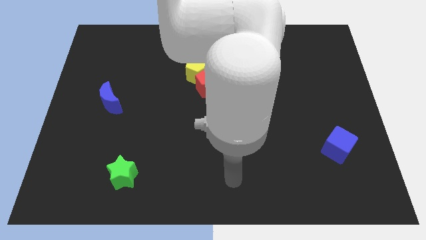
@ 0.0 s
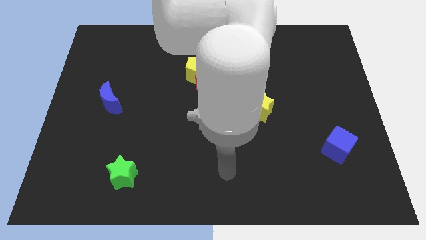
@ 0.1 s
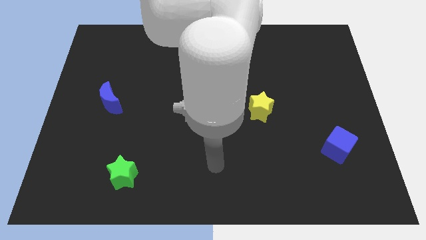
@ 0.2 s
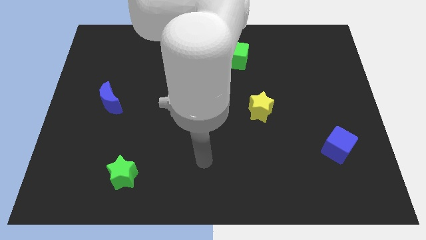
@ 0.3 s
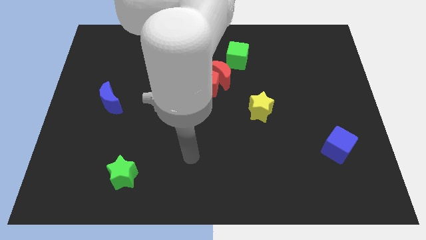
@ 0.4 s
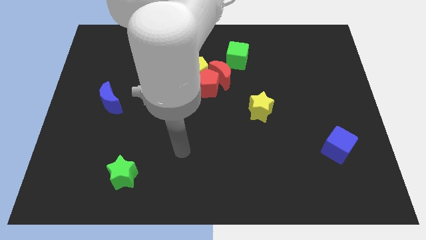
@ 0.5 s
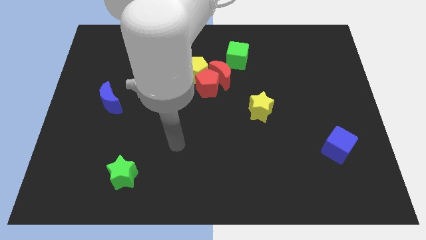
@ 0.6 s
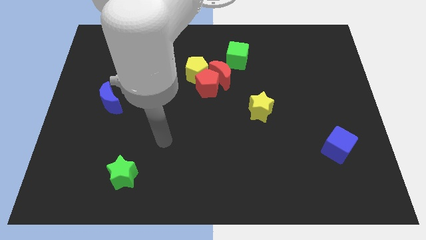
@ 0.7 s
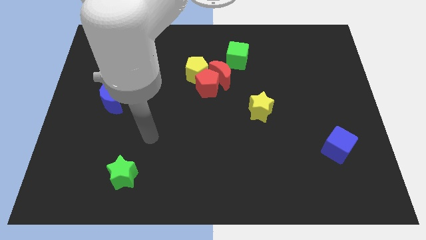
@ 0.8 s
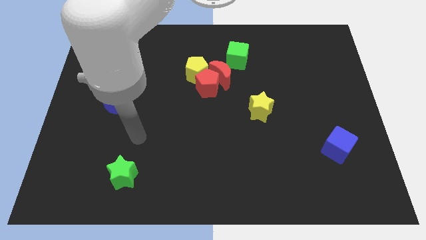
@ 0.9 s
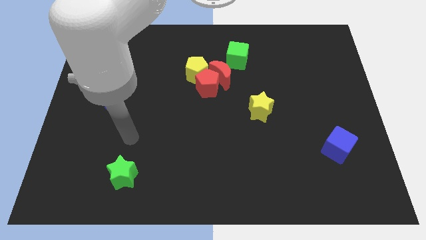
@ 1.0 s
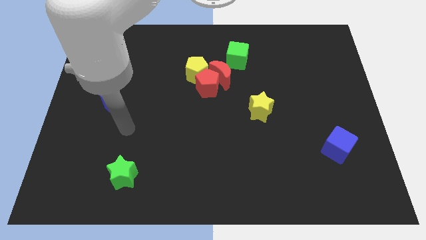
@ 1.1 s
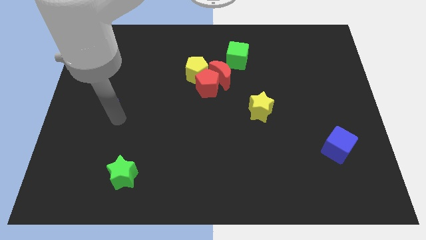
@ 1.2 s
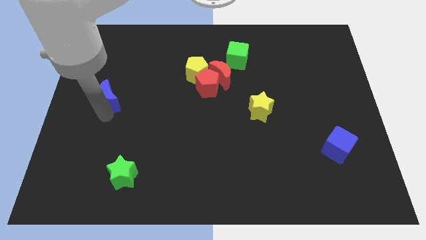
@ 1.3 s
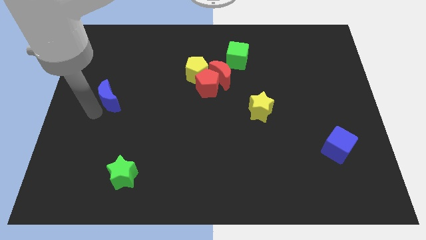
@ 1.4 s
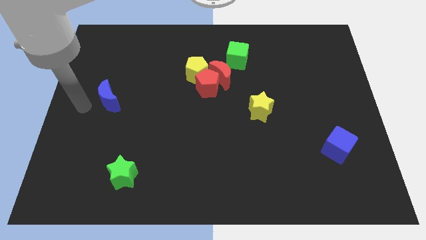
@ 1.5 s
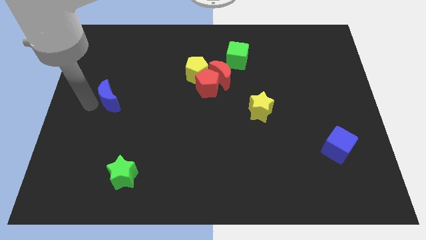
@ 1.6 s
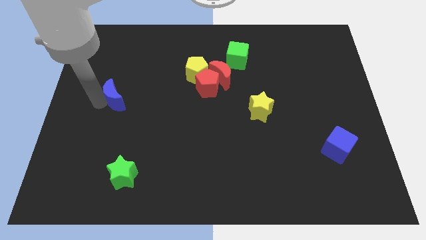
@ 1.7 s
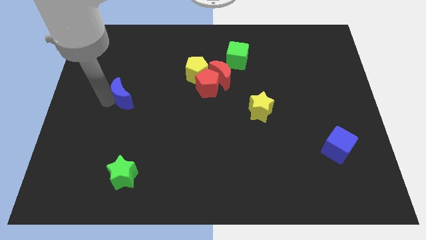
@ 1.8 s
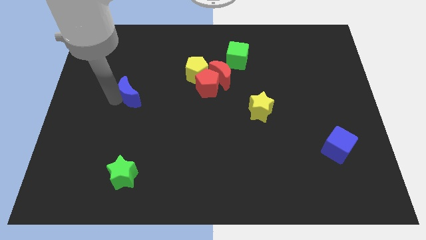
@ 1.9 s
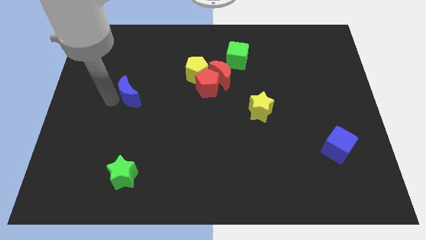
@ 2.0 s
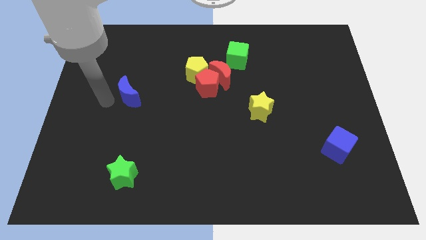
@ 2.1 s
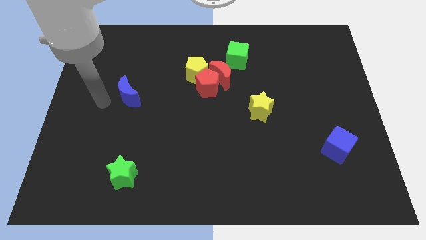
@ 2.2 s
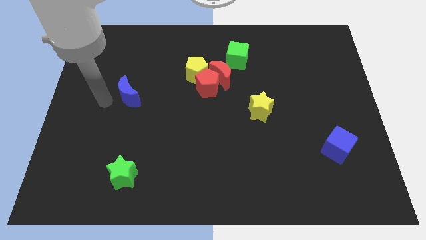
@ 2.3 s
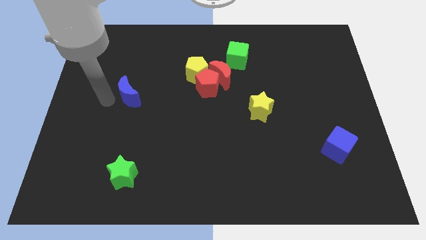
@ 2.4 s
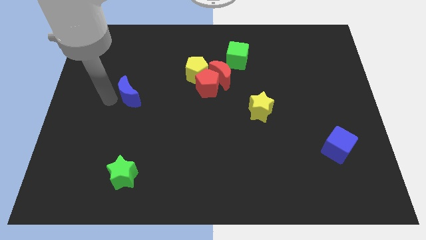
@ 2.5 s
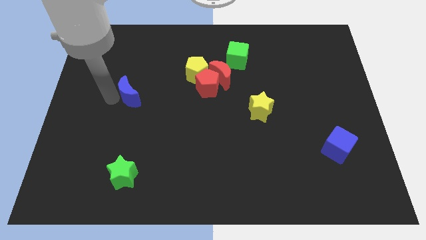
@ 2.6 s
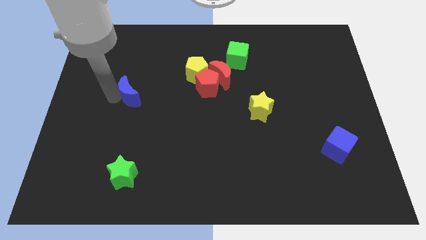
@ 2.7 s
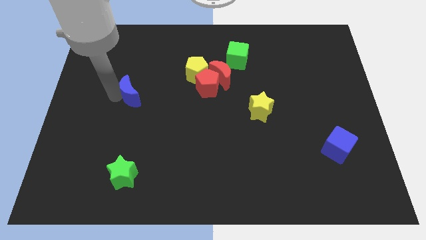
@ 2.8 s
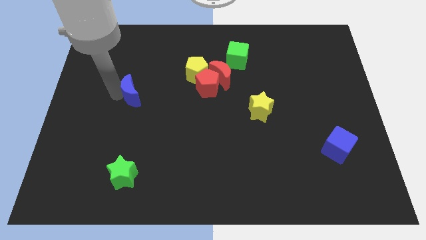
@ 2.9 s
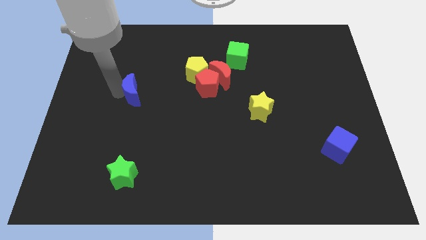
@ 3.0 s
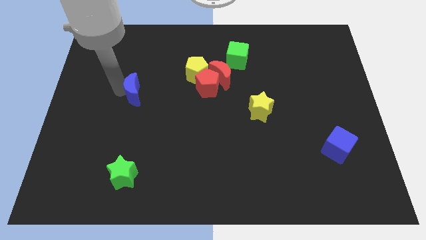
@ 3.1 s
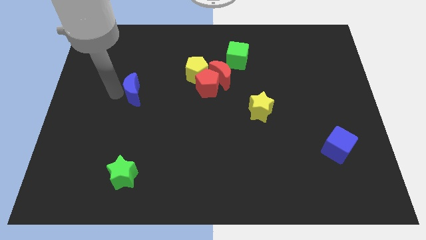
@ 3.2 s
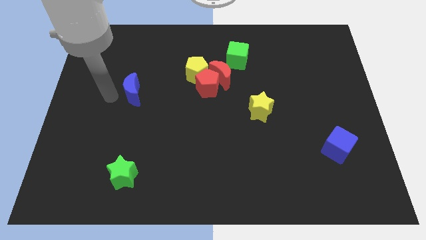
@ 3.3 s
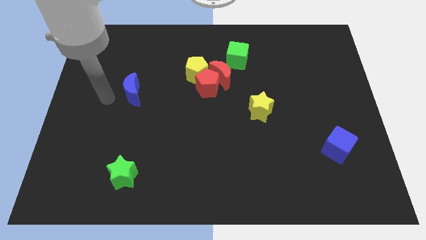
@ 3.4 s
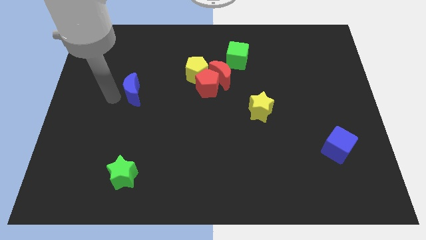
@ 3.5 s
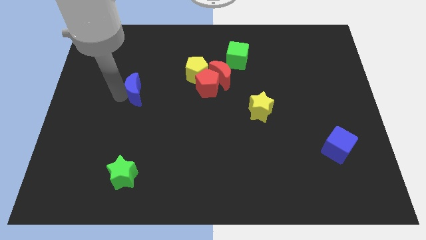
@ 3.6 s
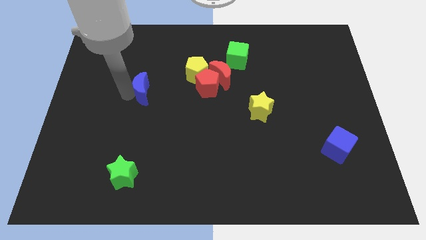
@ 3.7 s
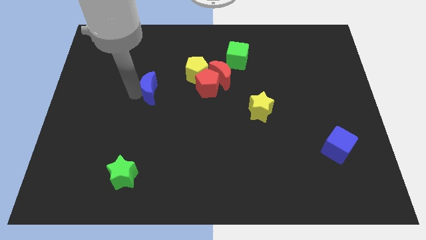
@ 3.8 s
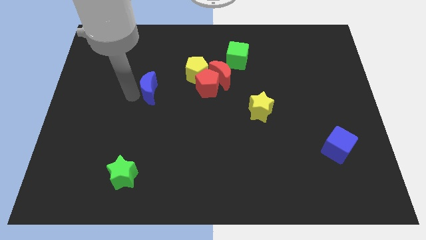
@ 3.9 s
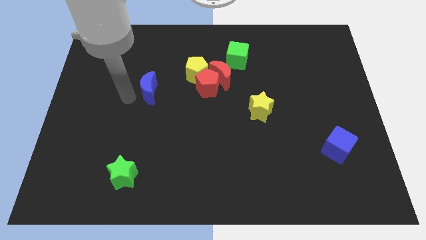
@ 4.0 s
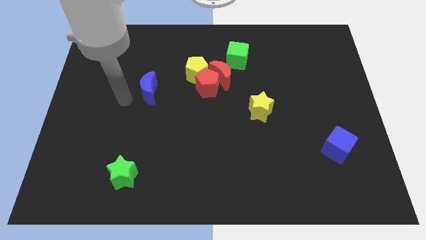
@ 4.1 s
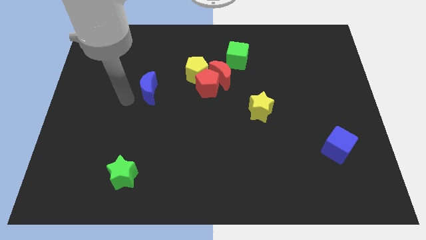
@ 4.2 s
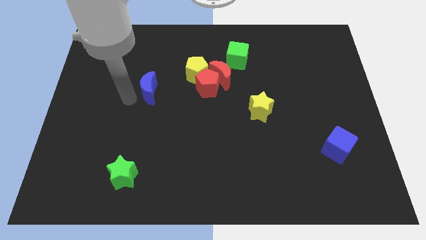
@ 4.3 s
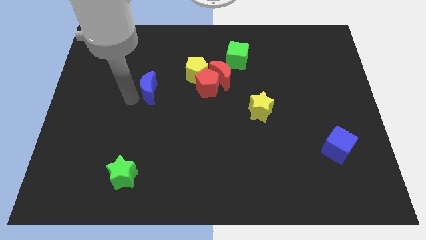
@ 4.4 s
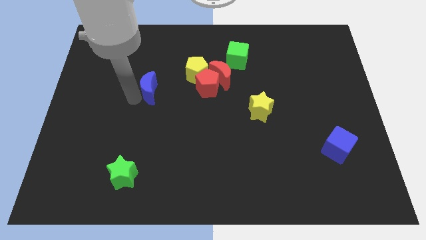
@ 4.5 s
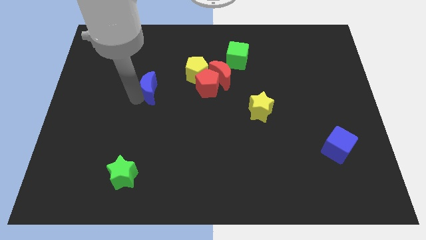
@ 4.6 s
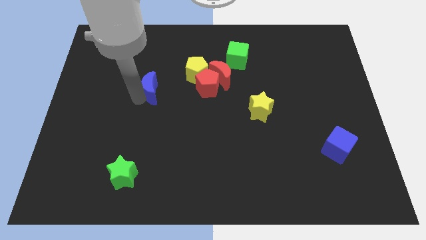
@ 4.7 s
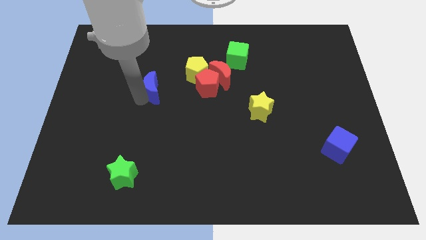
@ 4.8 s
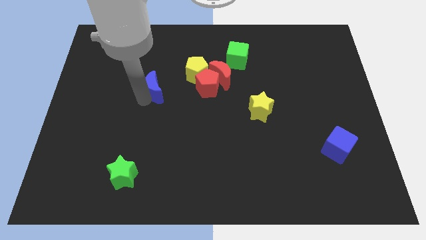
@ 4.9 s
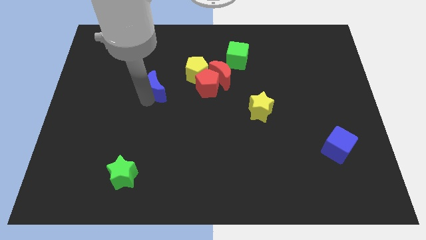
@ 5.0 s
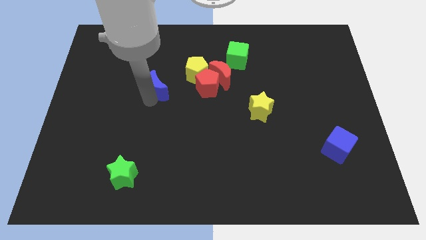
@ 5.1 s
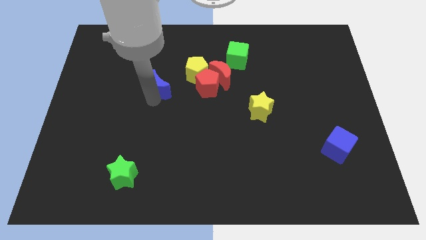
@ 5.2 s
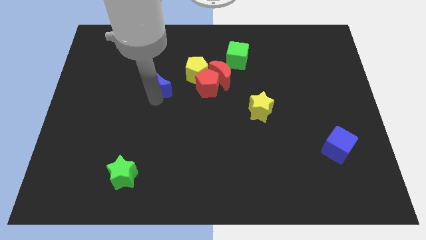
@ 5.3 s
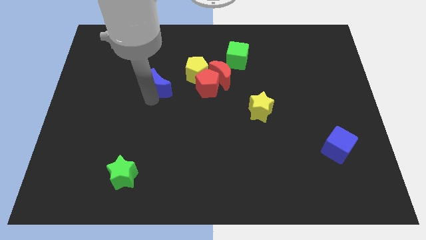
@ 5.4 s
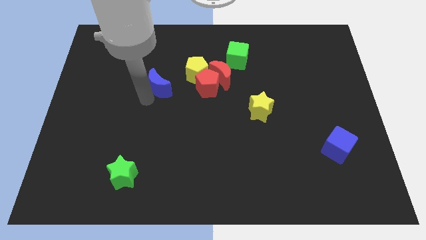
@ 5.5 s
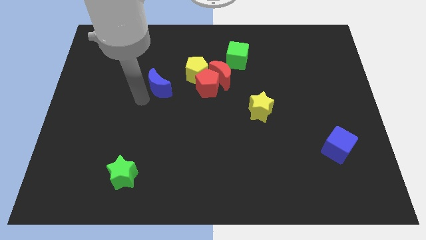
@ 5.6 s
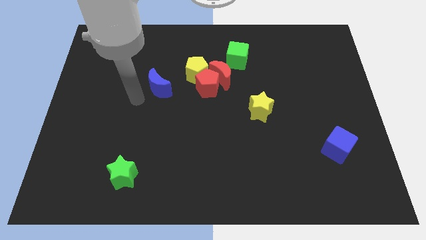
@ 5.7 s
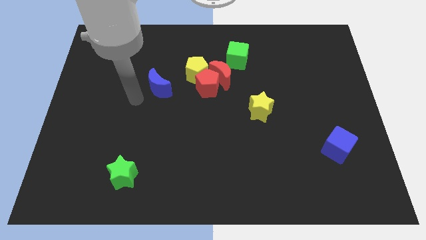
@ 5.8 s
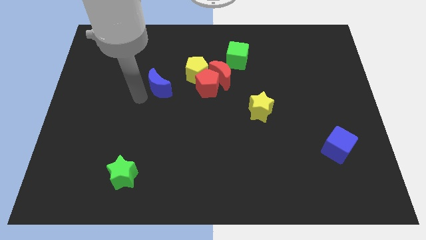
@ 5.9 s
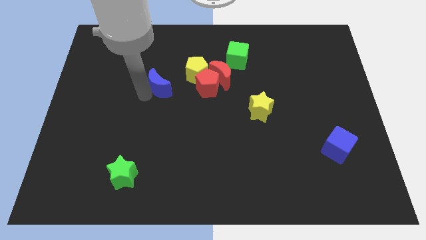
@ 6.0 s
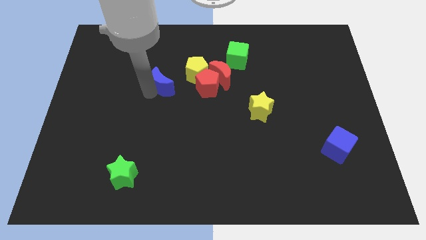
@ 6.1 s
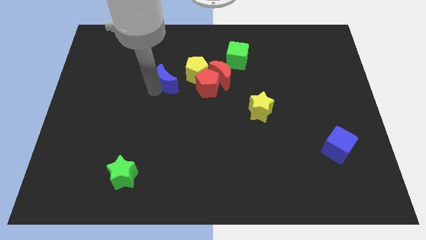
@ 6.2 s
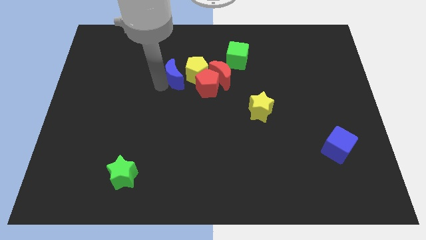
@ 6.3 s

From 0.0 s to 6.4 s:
move the blue moon towards the yellow pentagon

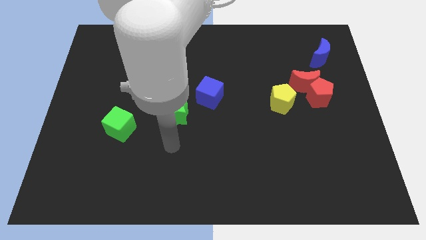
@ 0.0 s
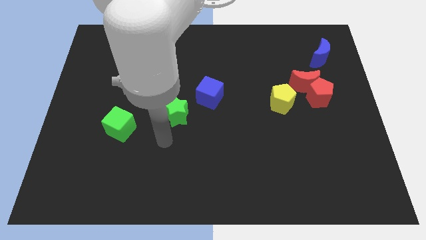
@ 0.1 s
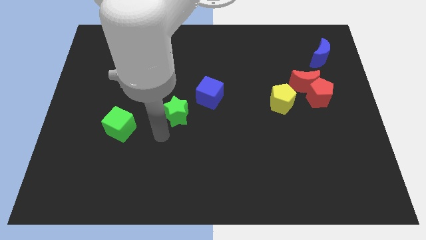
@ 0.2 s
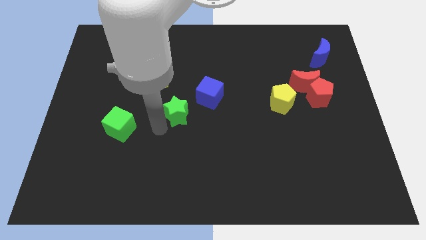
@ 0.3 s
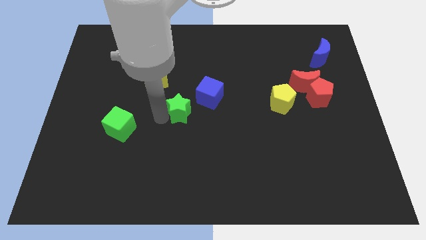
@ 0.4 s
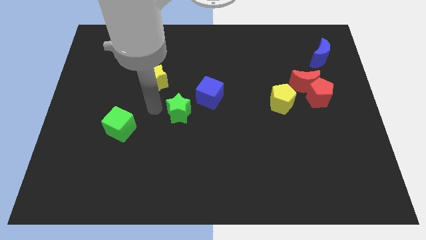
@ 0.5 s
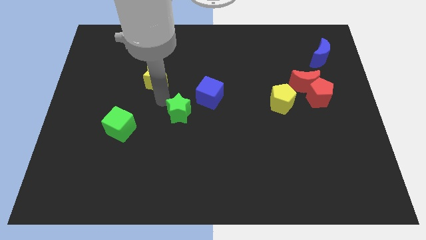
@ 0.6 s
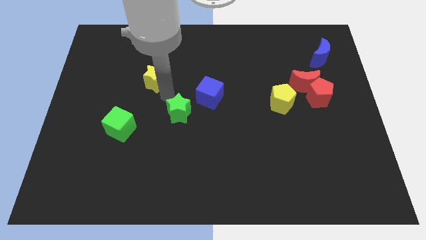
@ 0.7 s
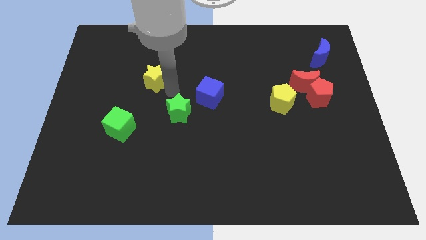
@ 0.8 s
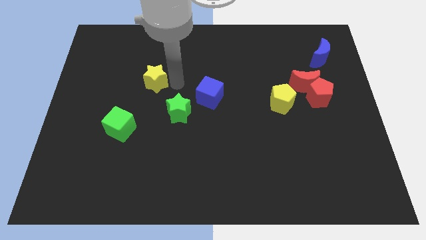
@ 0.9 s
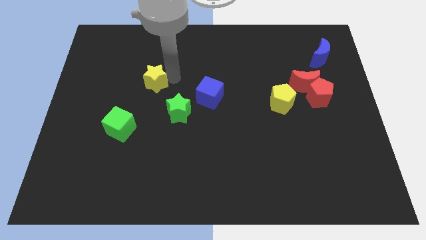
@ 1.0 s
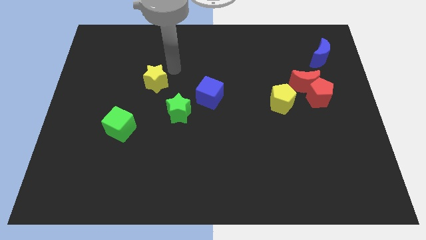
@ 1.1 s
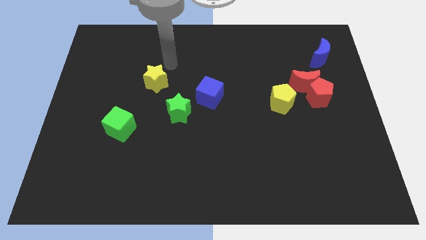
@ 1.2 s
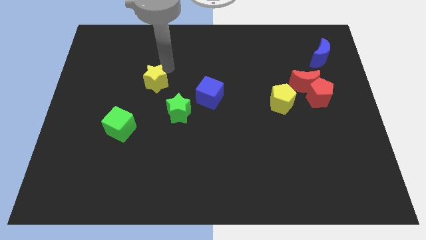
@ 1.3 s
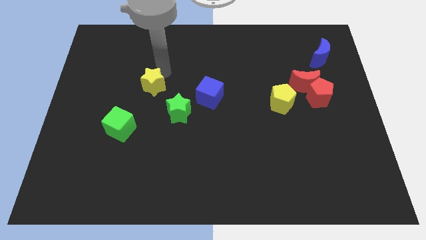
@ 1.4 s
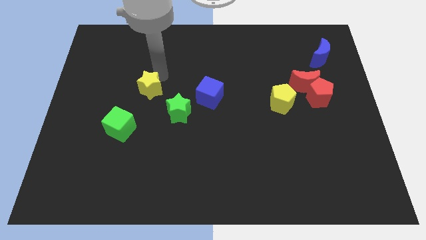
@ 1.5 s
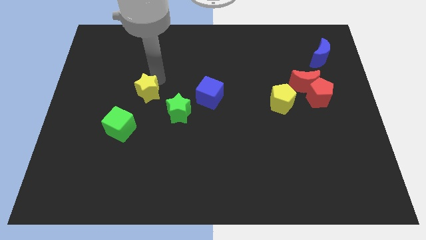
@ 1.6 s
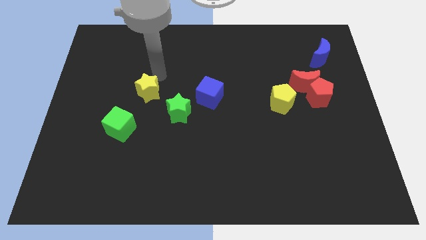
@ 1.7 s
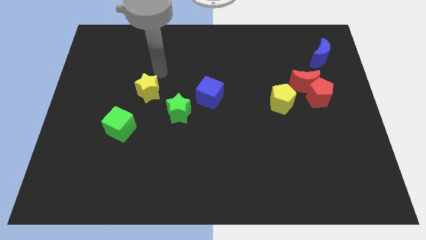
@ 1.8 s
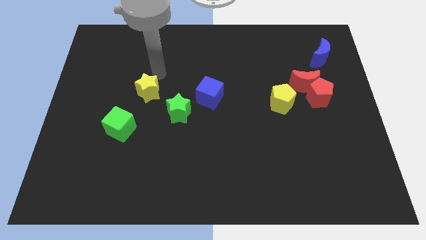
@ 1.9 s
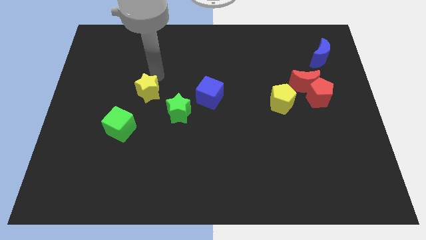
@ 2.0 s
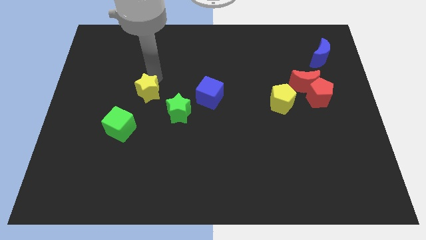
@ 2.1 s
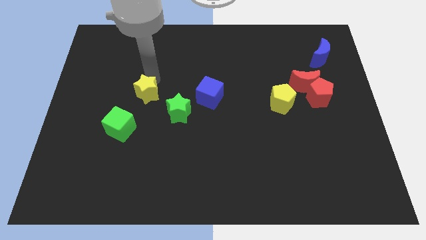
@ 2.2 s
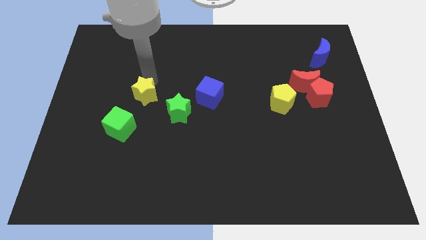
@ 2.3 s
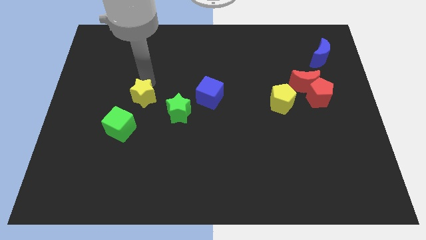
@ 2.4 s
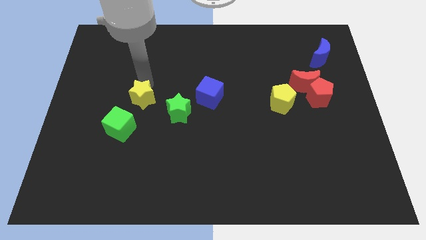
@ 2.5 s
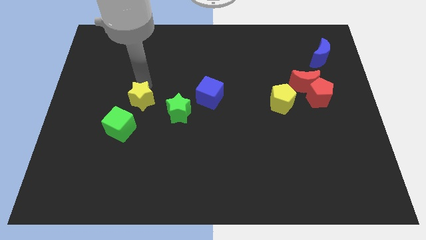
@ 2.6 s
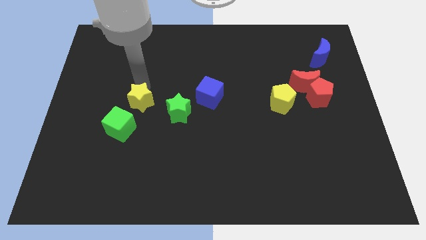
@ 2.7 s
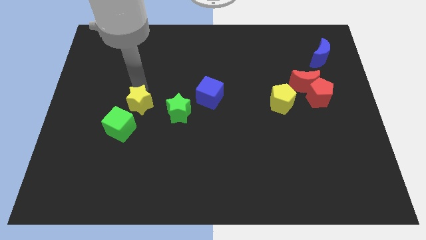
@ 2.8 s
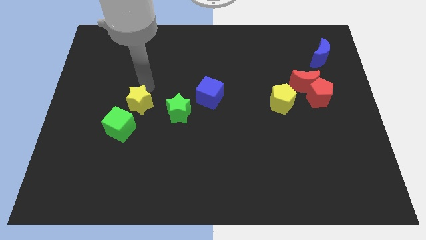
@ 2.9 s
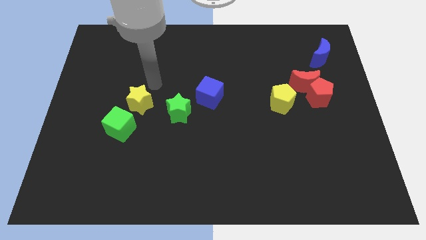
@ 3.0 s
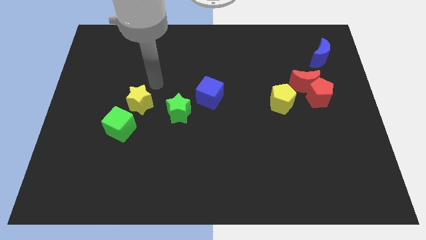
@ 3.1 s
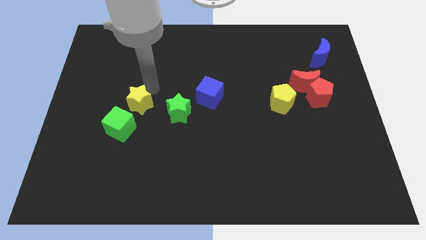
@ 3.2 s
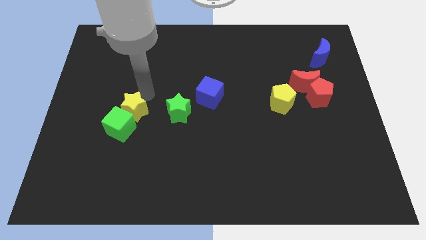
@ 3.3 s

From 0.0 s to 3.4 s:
move the yellow star towards the green cube
